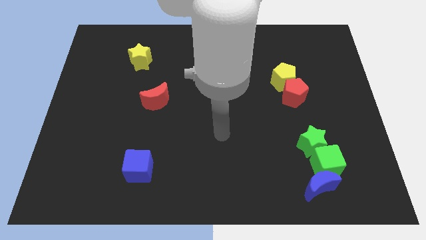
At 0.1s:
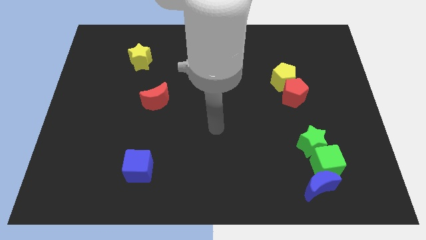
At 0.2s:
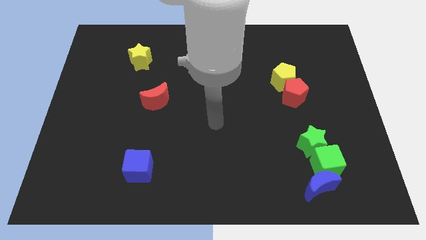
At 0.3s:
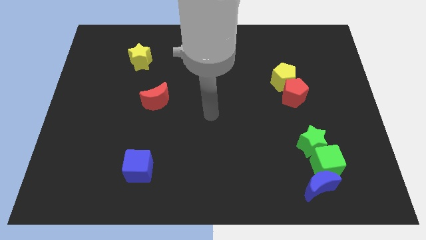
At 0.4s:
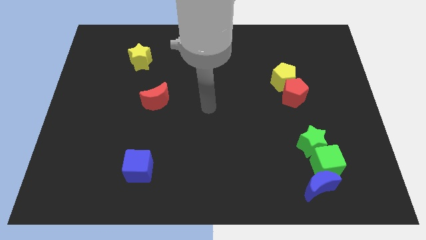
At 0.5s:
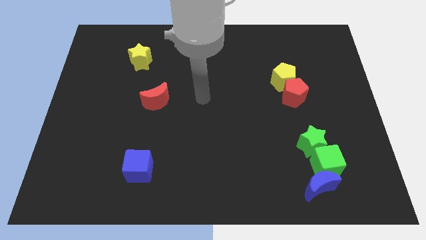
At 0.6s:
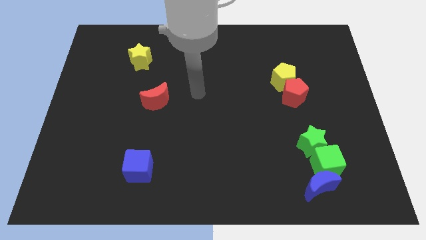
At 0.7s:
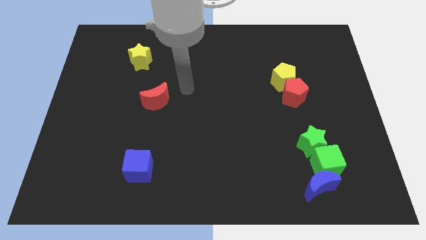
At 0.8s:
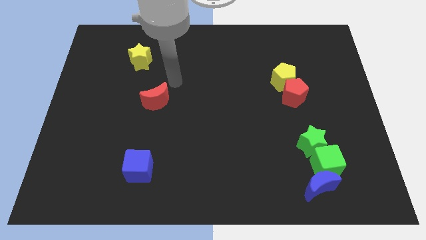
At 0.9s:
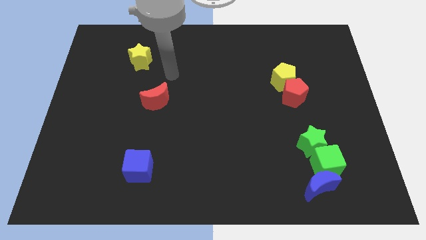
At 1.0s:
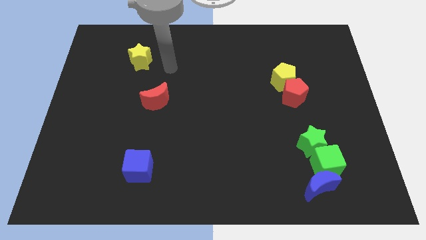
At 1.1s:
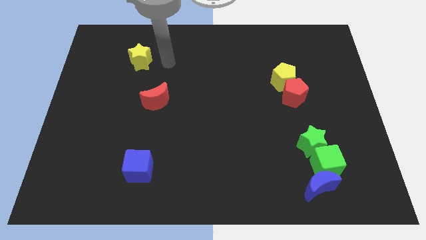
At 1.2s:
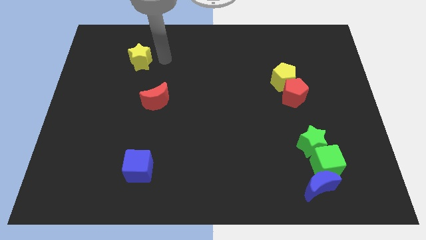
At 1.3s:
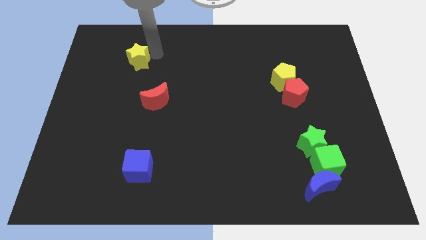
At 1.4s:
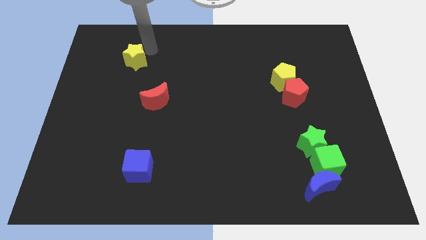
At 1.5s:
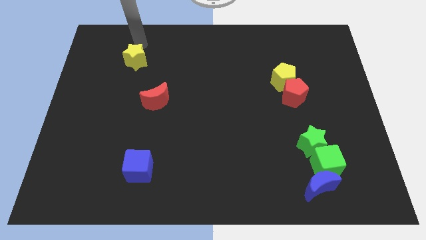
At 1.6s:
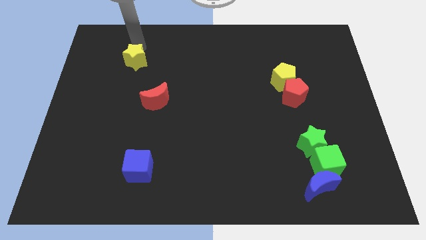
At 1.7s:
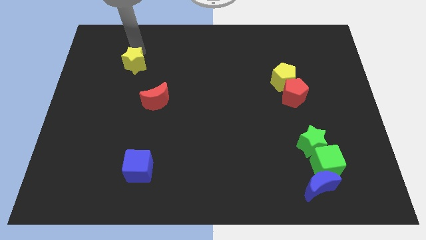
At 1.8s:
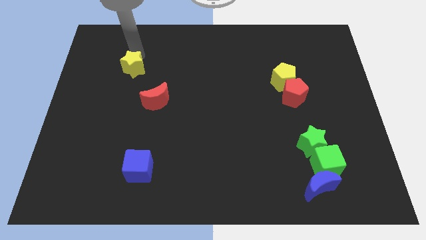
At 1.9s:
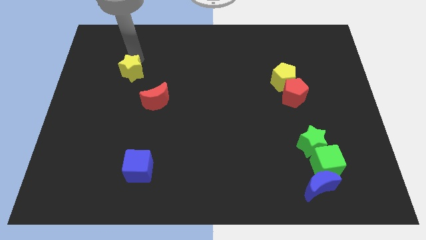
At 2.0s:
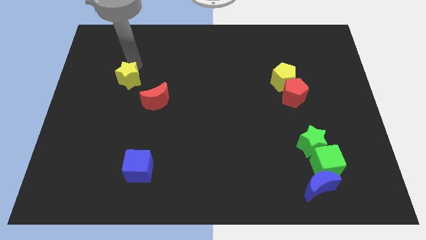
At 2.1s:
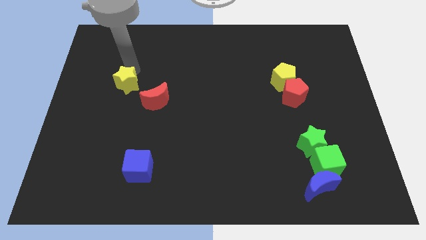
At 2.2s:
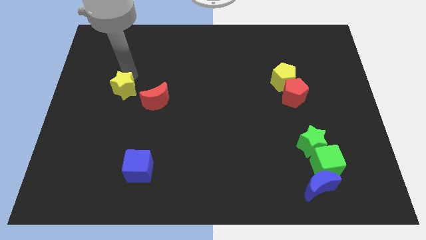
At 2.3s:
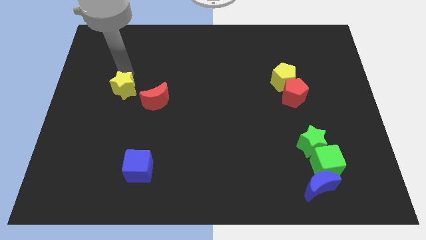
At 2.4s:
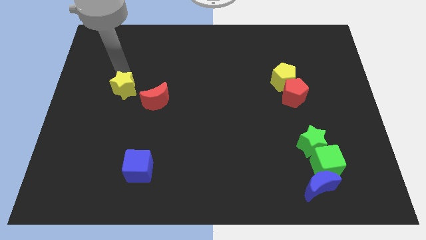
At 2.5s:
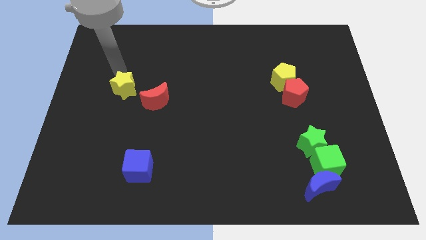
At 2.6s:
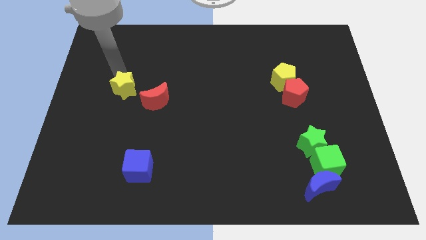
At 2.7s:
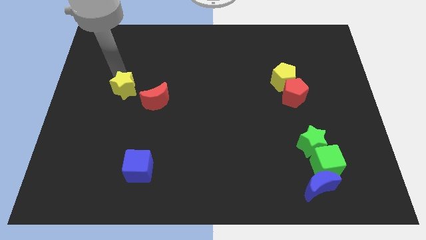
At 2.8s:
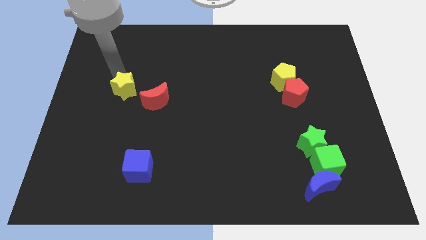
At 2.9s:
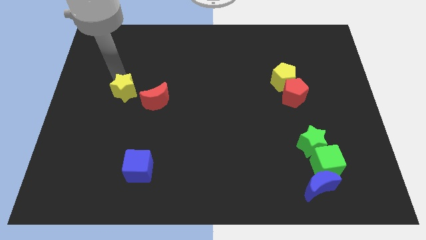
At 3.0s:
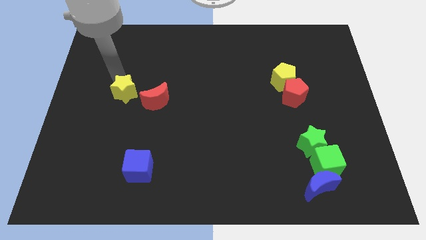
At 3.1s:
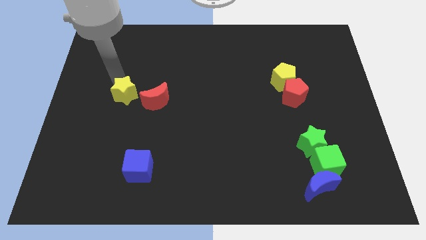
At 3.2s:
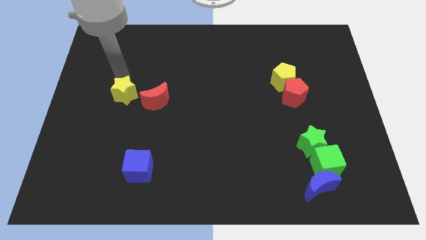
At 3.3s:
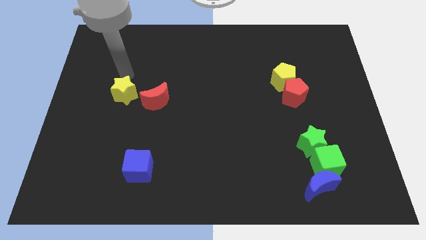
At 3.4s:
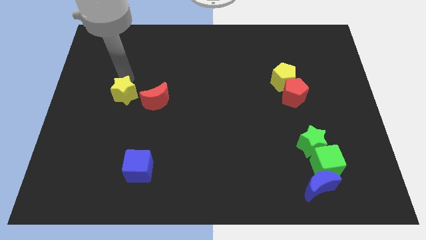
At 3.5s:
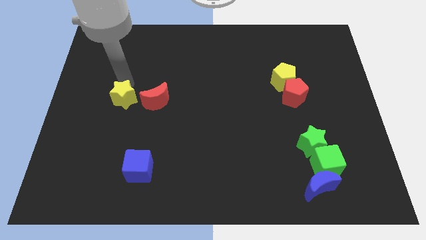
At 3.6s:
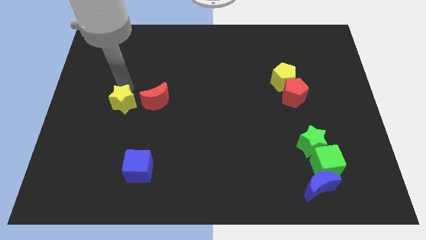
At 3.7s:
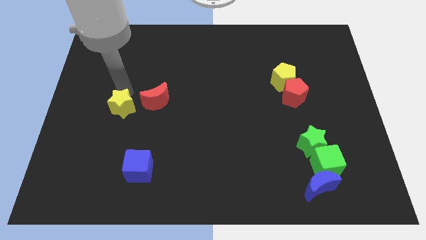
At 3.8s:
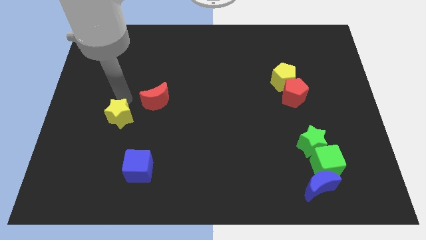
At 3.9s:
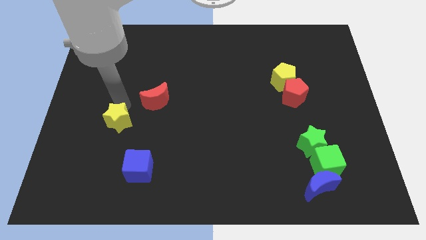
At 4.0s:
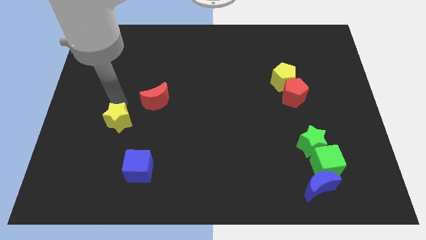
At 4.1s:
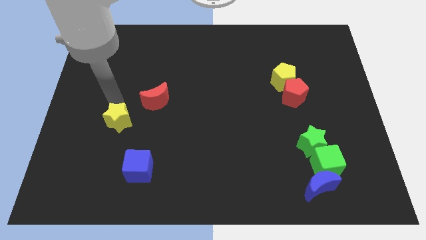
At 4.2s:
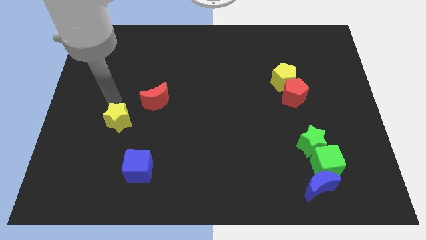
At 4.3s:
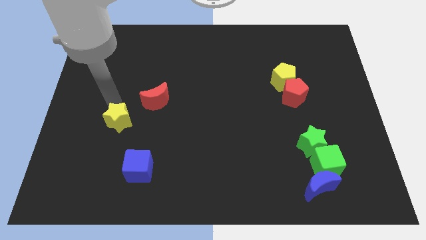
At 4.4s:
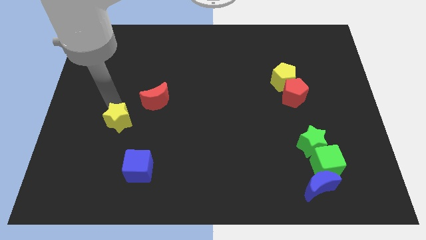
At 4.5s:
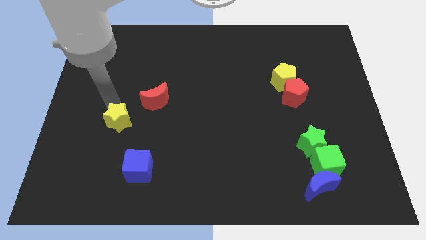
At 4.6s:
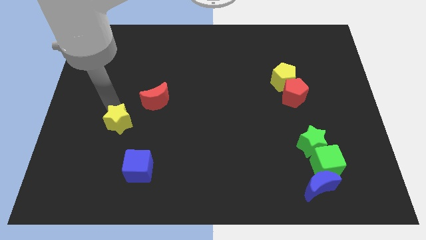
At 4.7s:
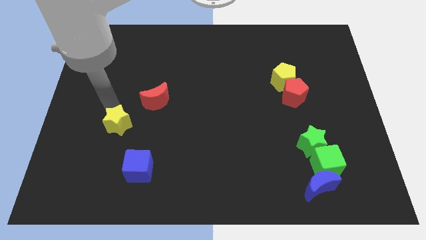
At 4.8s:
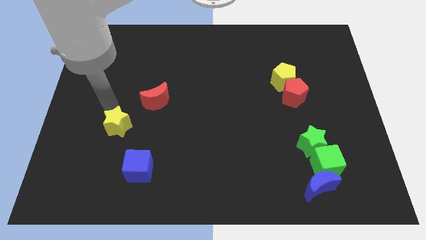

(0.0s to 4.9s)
put the yellow star to the top left side of the blue cube

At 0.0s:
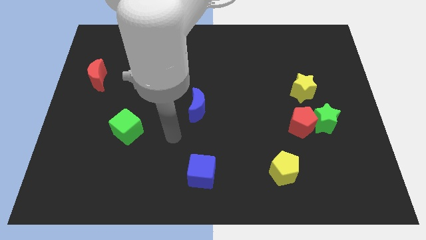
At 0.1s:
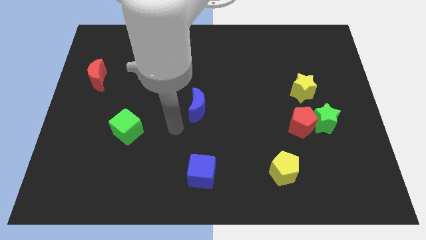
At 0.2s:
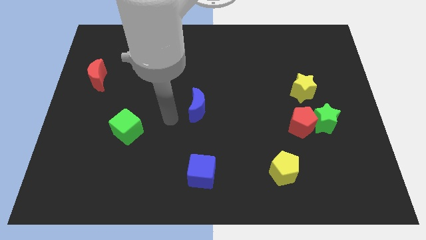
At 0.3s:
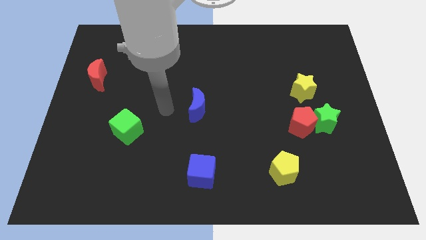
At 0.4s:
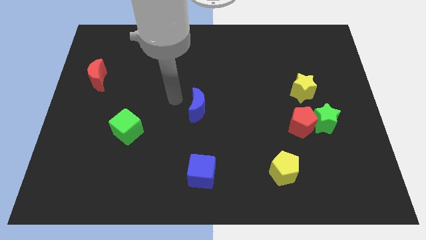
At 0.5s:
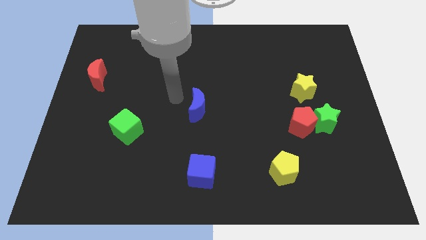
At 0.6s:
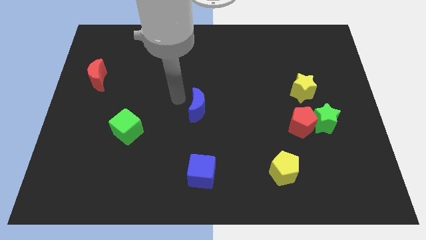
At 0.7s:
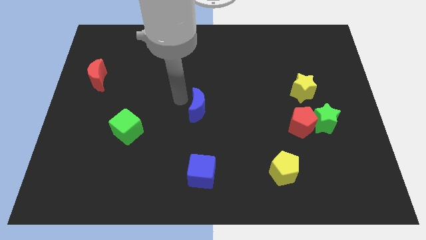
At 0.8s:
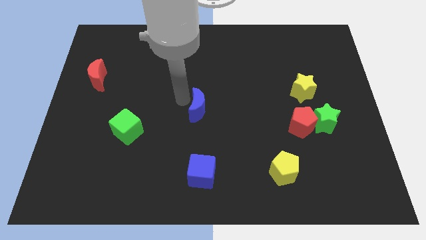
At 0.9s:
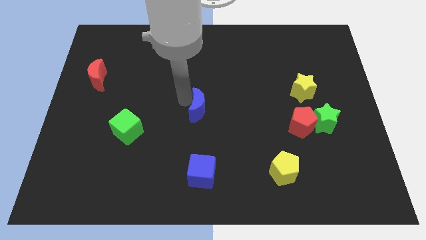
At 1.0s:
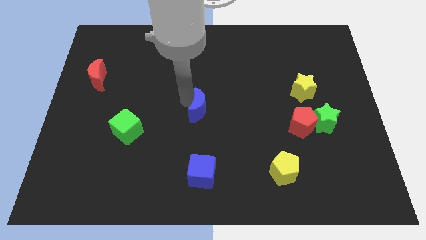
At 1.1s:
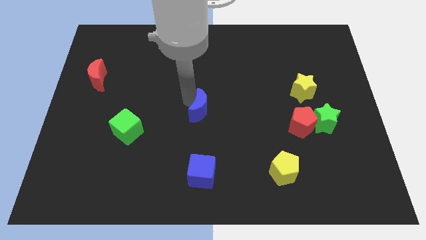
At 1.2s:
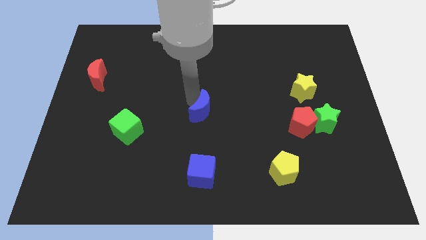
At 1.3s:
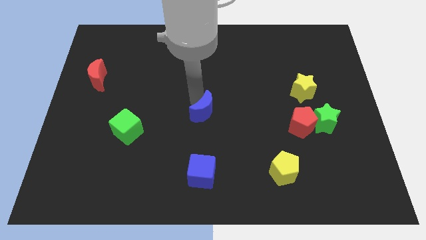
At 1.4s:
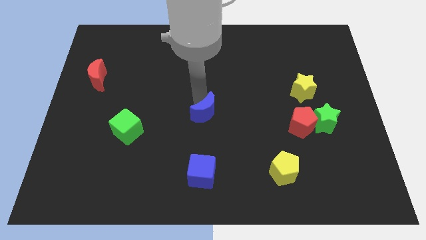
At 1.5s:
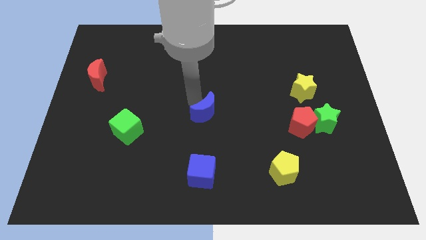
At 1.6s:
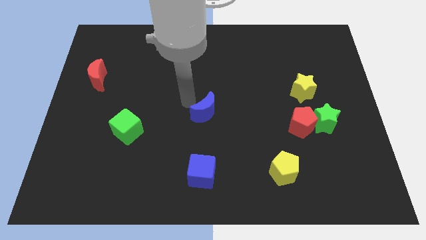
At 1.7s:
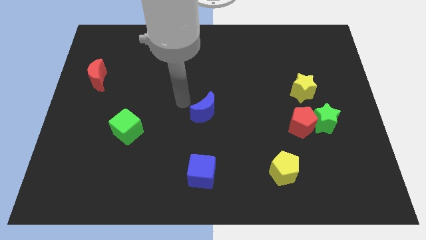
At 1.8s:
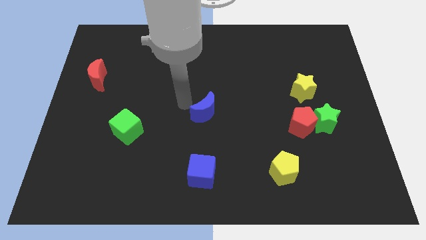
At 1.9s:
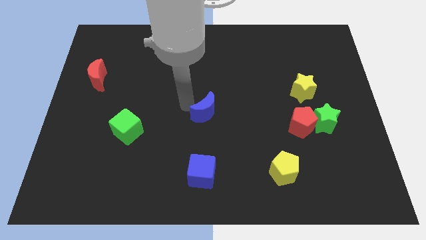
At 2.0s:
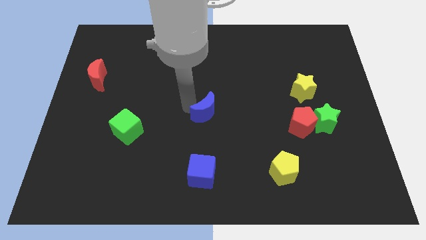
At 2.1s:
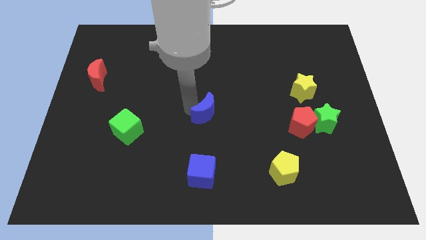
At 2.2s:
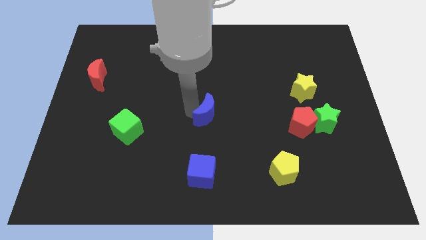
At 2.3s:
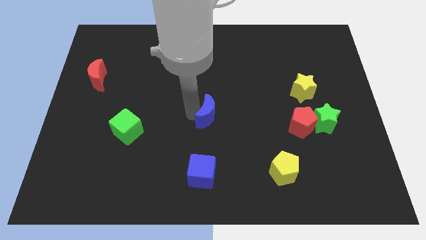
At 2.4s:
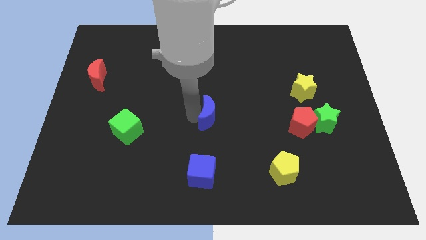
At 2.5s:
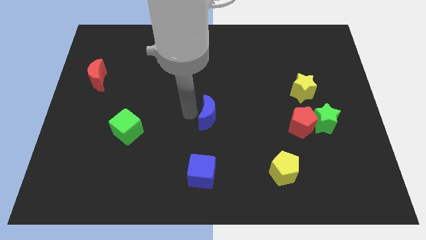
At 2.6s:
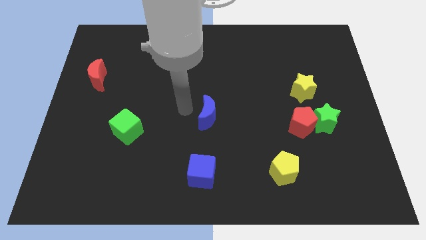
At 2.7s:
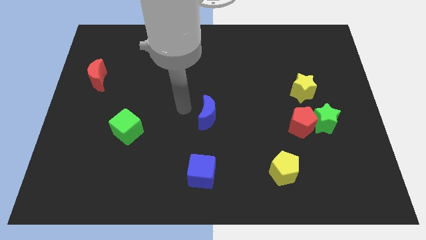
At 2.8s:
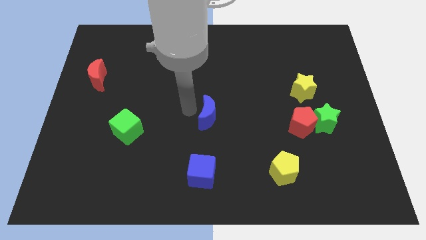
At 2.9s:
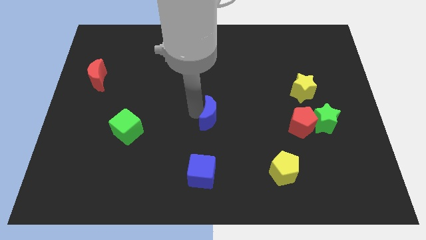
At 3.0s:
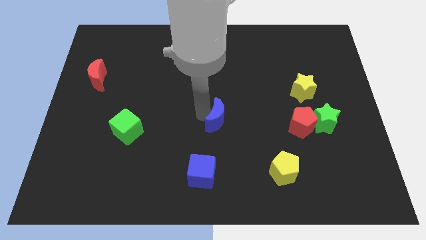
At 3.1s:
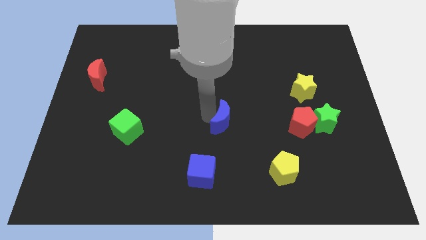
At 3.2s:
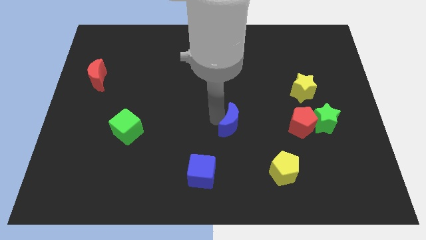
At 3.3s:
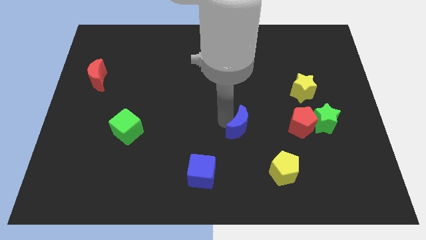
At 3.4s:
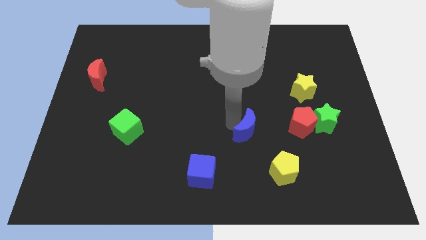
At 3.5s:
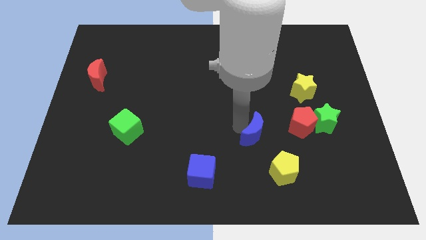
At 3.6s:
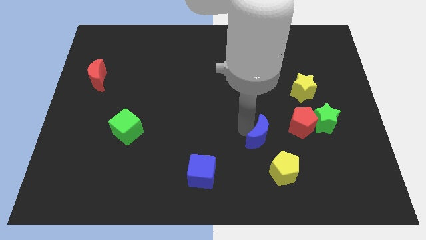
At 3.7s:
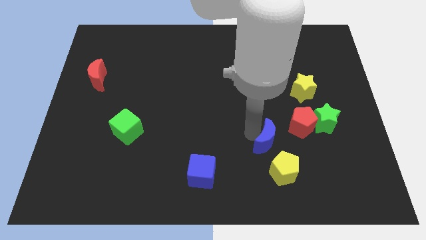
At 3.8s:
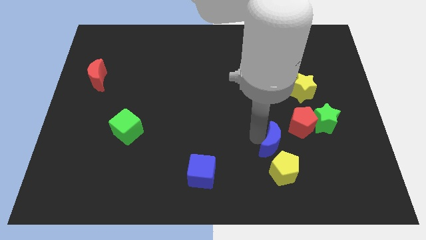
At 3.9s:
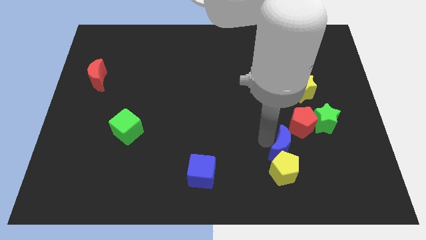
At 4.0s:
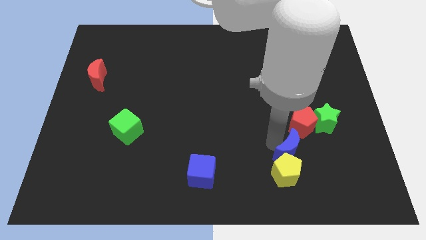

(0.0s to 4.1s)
put the blue moon to the bottom of the red pentagon
